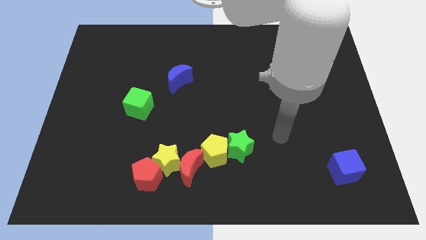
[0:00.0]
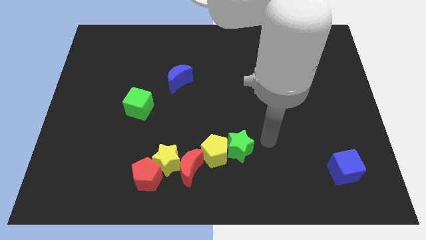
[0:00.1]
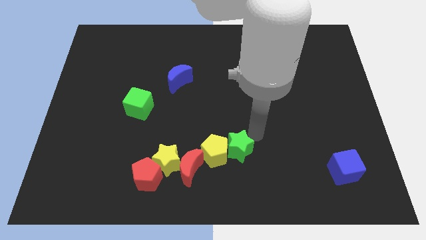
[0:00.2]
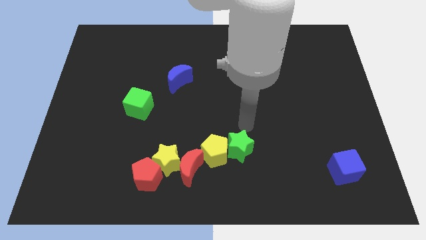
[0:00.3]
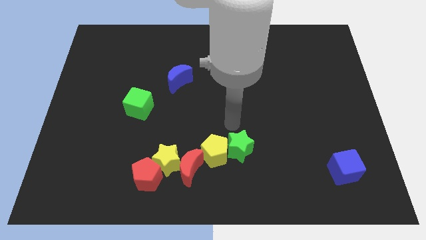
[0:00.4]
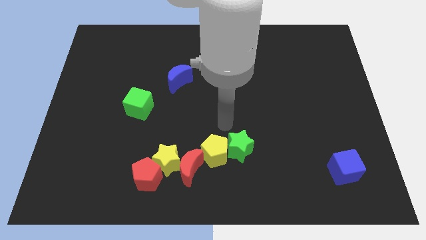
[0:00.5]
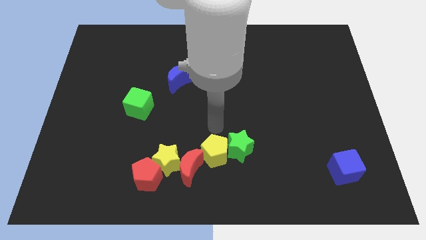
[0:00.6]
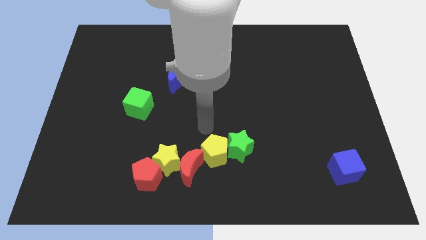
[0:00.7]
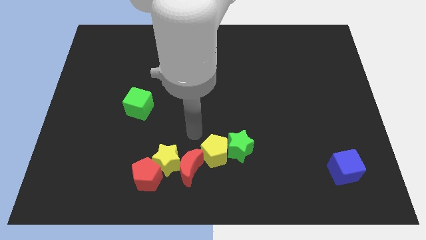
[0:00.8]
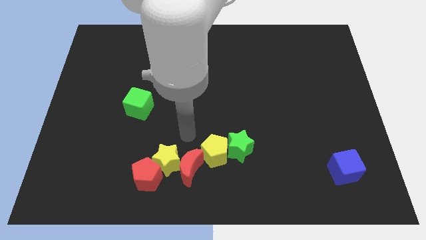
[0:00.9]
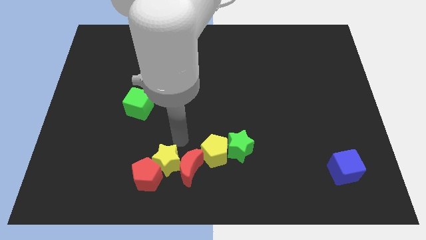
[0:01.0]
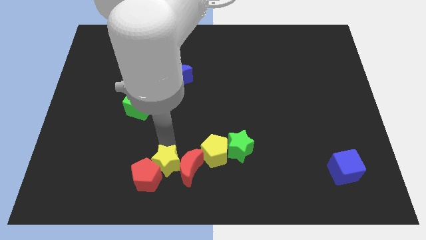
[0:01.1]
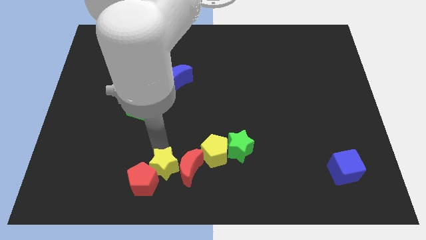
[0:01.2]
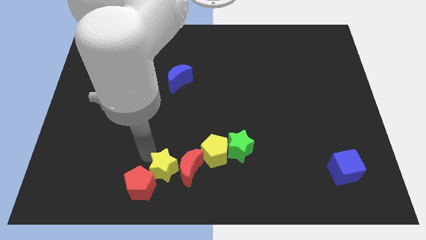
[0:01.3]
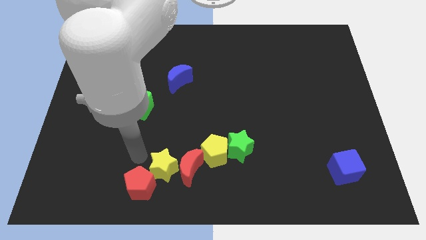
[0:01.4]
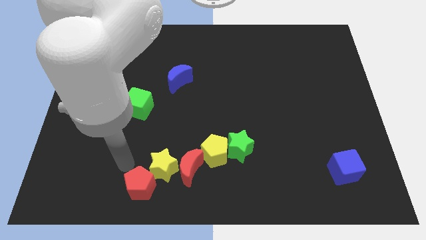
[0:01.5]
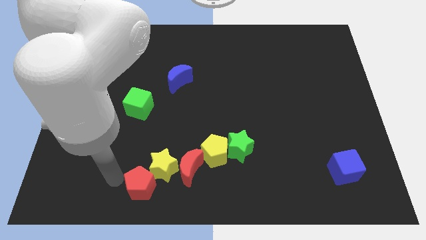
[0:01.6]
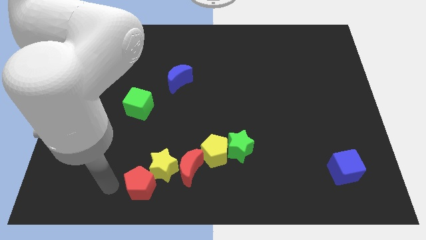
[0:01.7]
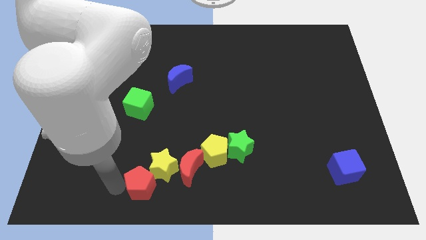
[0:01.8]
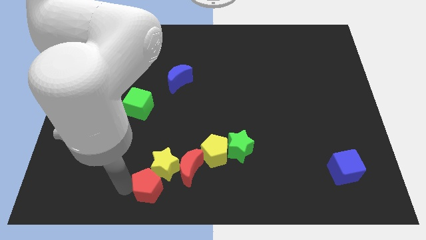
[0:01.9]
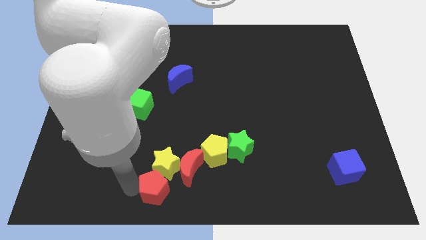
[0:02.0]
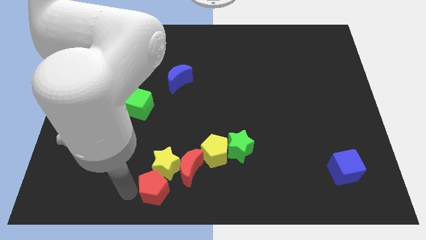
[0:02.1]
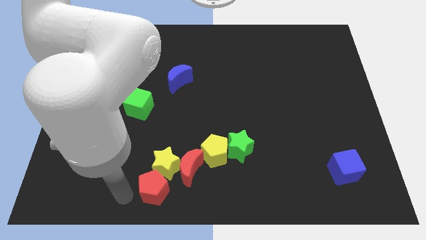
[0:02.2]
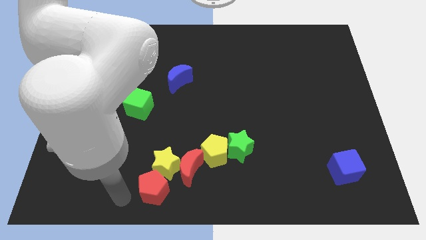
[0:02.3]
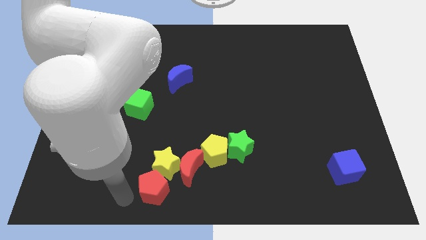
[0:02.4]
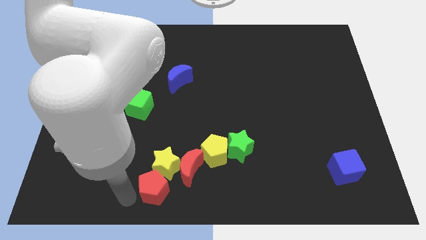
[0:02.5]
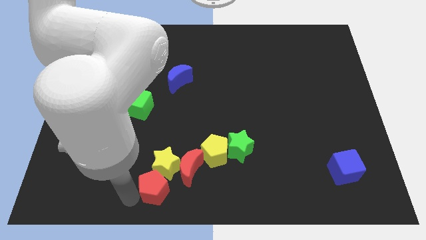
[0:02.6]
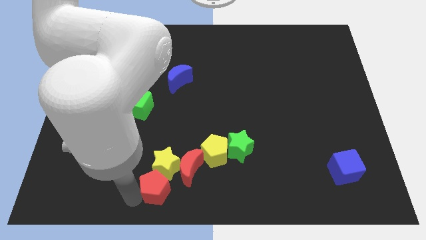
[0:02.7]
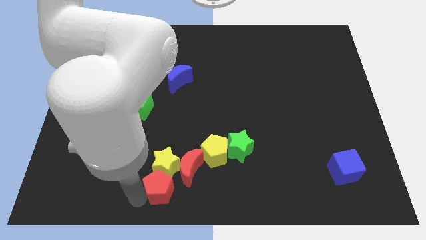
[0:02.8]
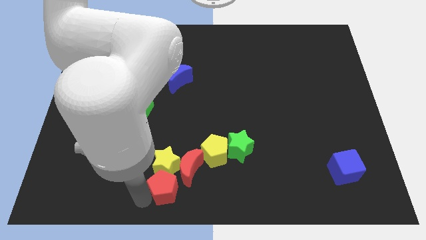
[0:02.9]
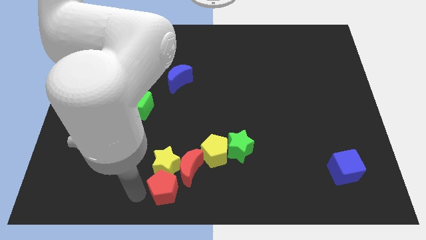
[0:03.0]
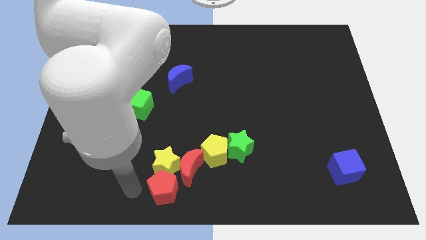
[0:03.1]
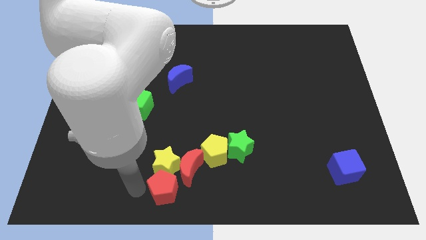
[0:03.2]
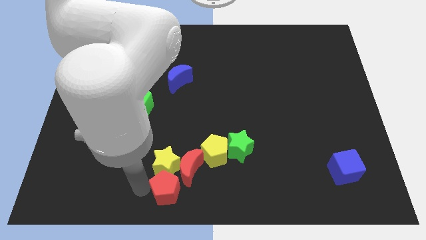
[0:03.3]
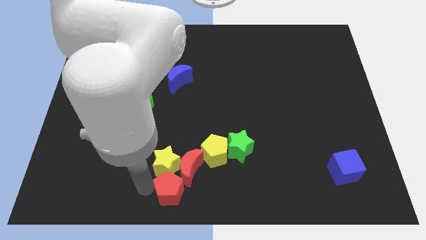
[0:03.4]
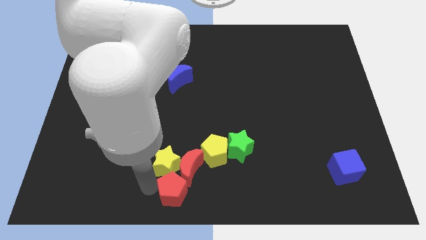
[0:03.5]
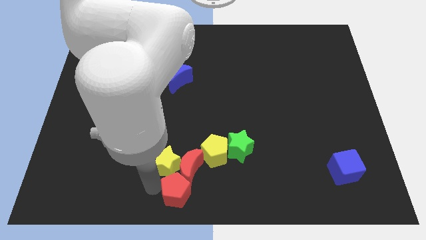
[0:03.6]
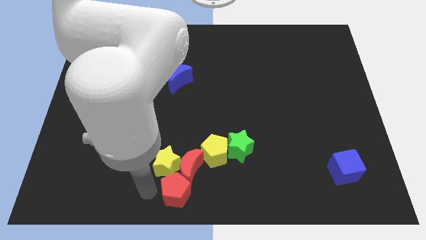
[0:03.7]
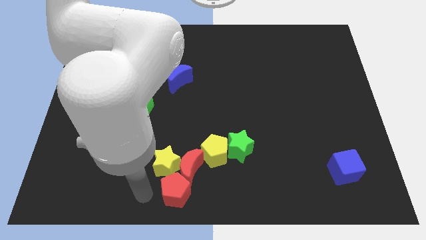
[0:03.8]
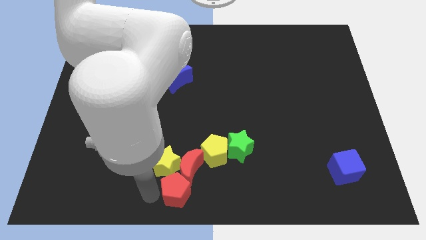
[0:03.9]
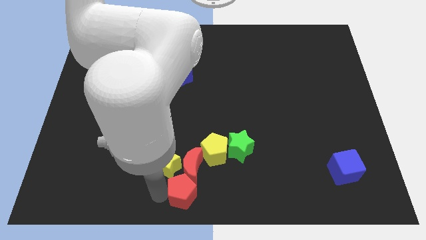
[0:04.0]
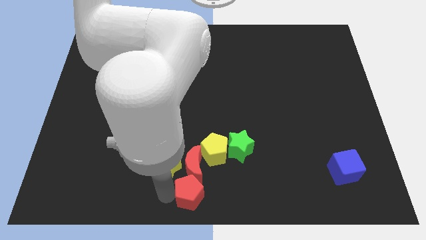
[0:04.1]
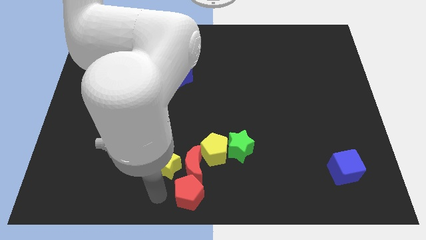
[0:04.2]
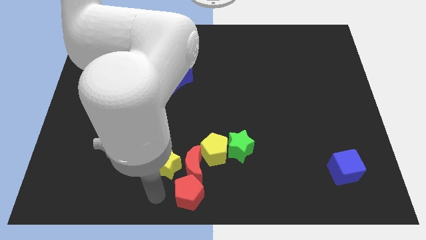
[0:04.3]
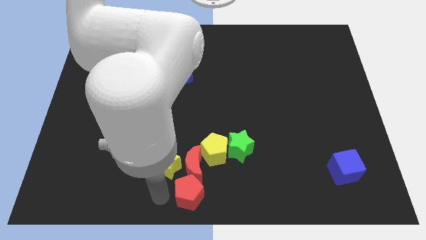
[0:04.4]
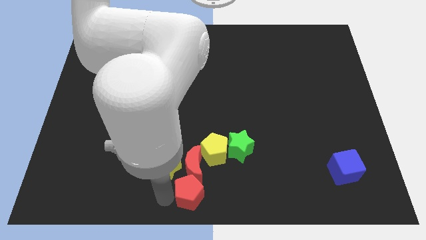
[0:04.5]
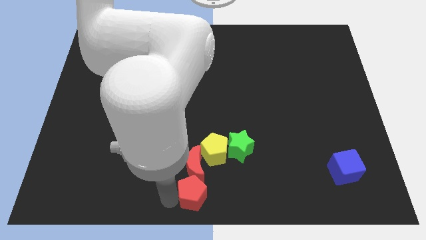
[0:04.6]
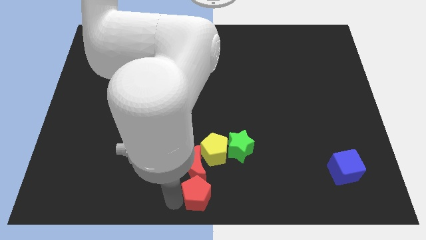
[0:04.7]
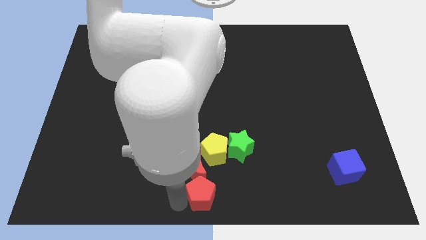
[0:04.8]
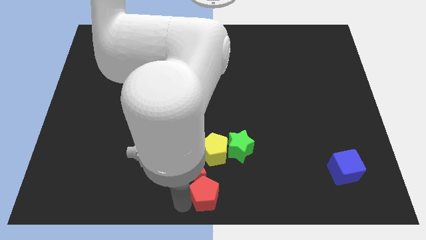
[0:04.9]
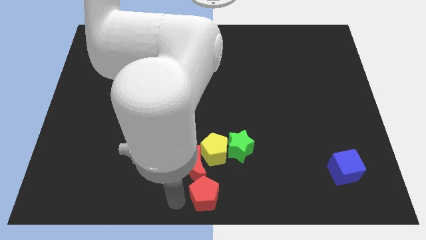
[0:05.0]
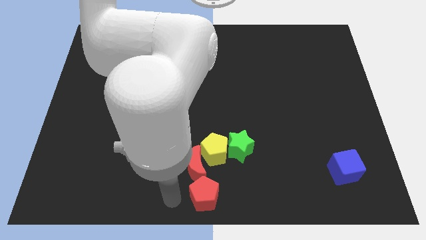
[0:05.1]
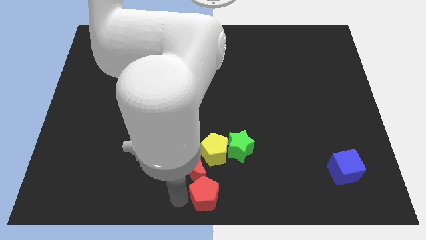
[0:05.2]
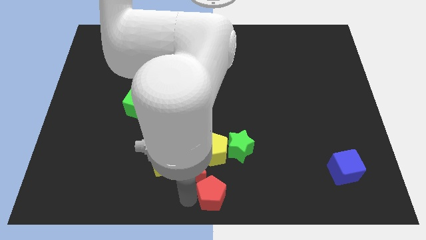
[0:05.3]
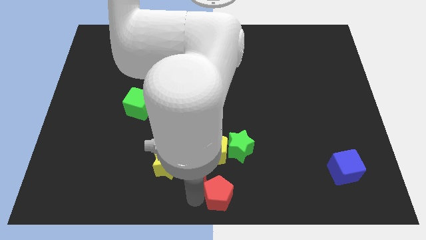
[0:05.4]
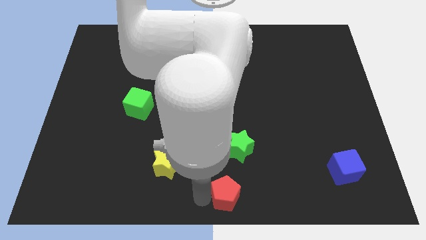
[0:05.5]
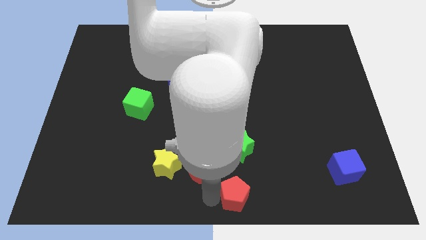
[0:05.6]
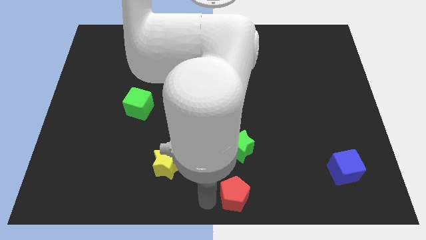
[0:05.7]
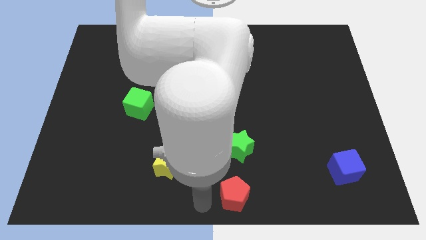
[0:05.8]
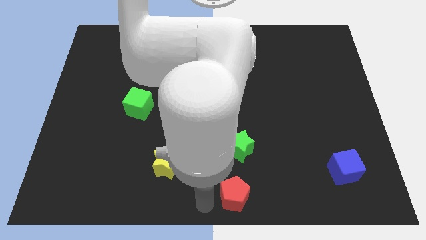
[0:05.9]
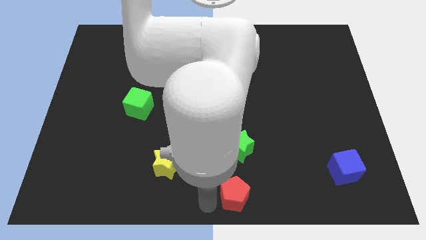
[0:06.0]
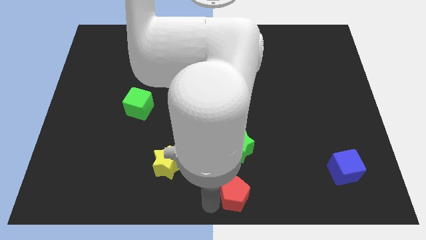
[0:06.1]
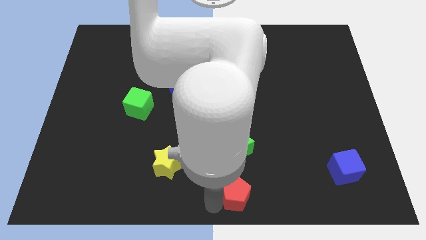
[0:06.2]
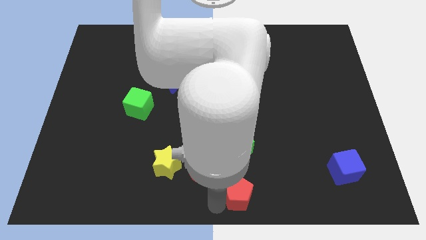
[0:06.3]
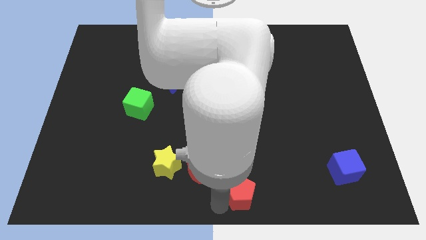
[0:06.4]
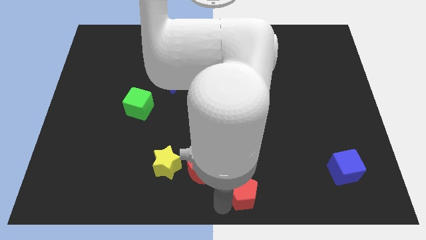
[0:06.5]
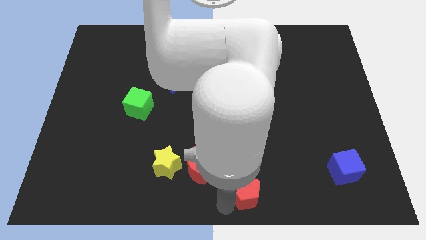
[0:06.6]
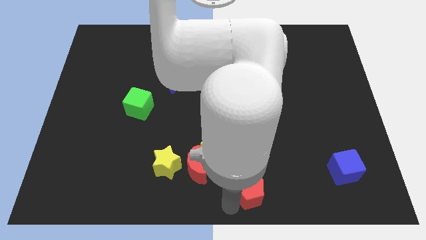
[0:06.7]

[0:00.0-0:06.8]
push the red pentagon to the right

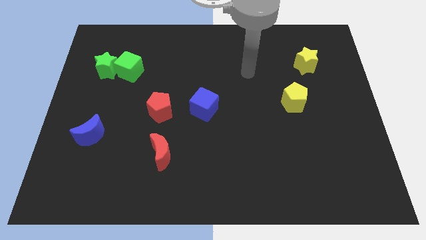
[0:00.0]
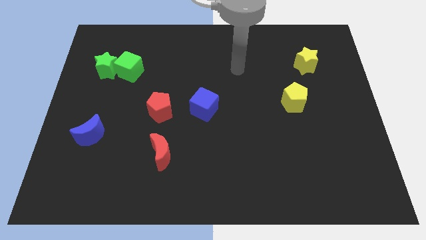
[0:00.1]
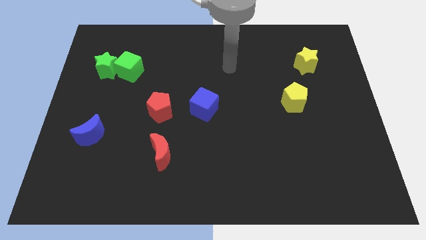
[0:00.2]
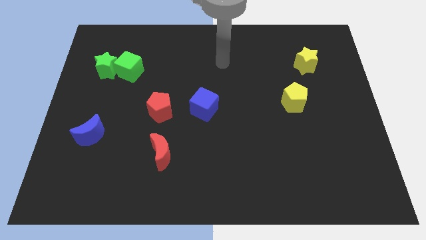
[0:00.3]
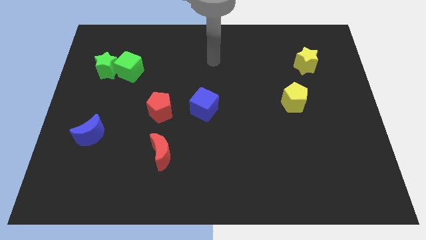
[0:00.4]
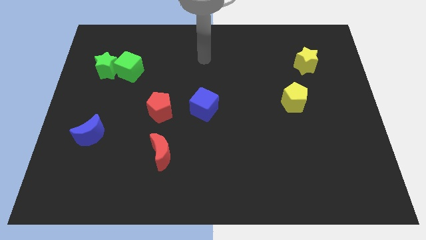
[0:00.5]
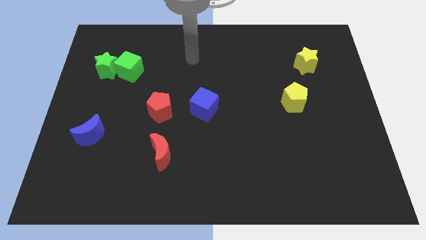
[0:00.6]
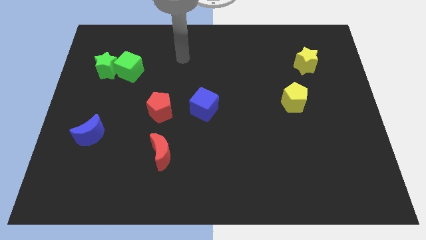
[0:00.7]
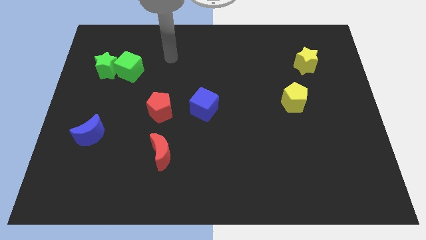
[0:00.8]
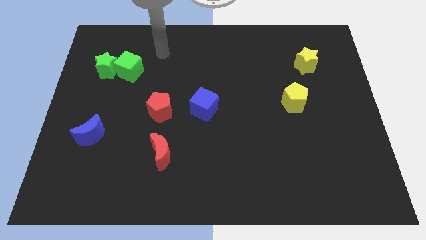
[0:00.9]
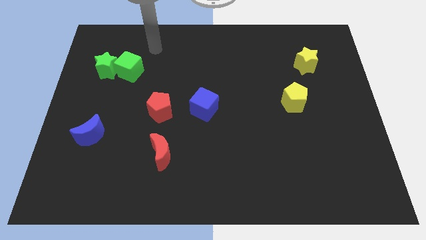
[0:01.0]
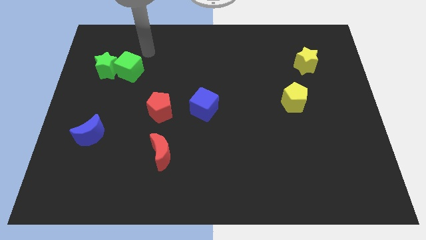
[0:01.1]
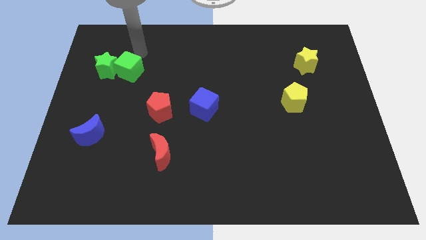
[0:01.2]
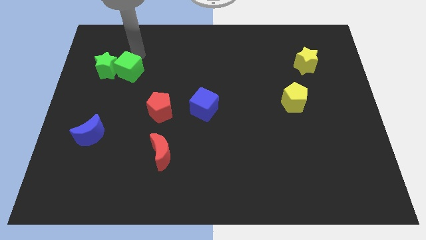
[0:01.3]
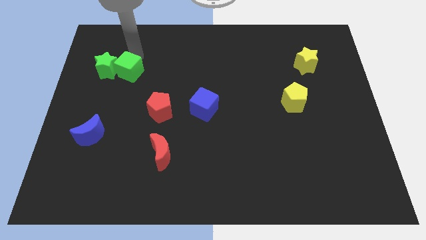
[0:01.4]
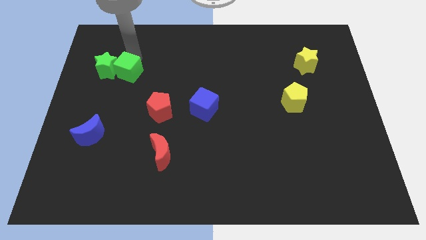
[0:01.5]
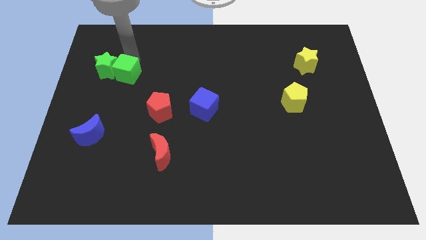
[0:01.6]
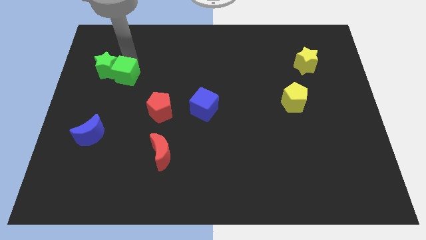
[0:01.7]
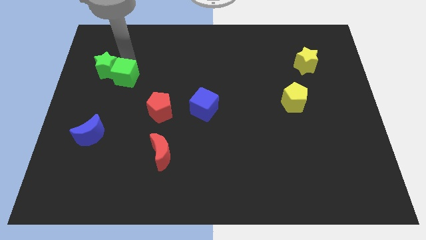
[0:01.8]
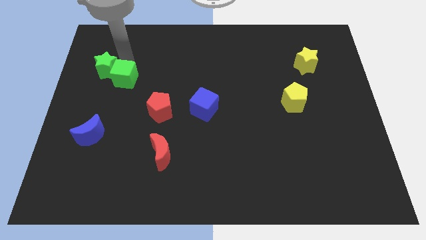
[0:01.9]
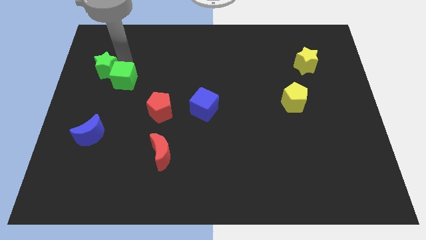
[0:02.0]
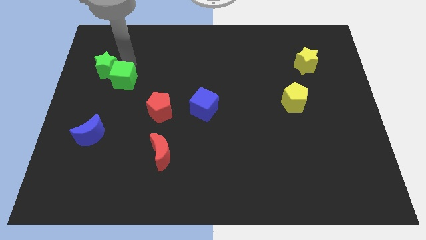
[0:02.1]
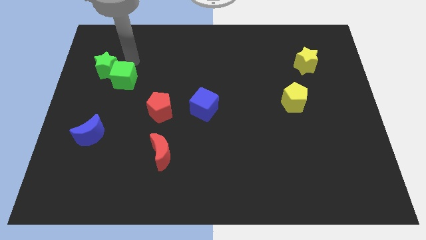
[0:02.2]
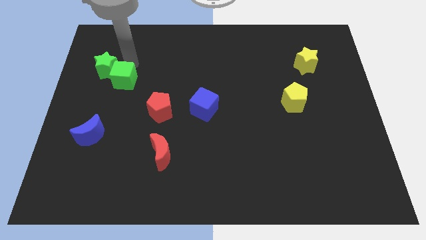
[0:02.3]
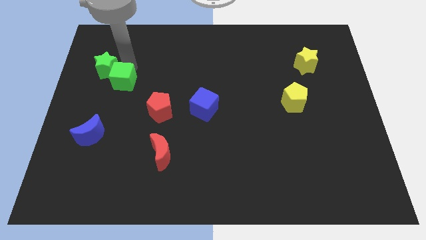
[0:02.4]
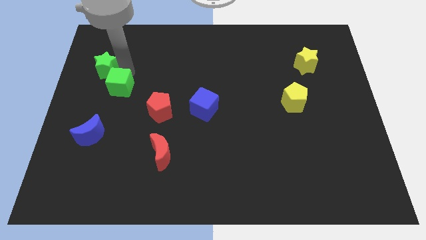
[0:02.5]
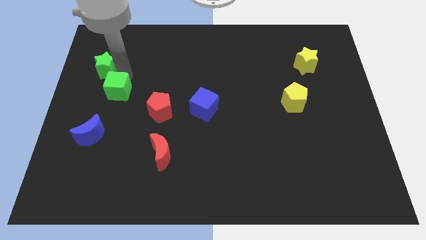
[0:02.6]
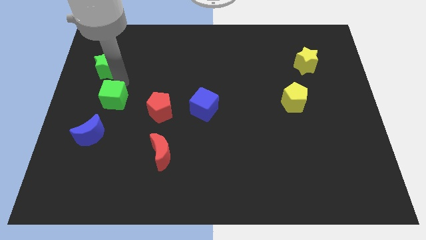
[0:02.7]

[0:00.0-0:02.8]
push the green cube downwards a little bit
